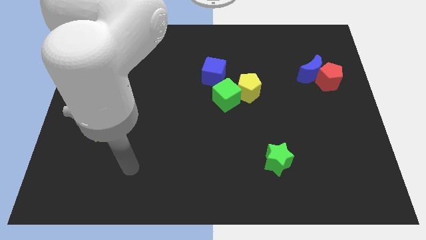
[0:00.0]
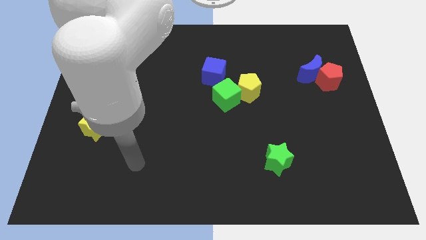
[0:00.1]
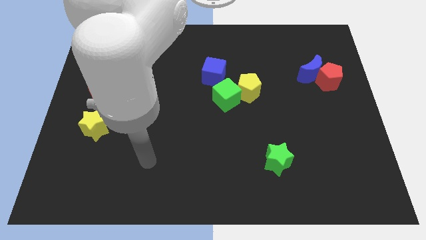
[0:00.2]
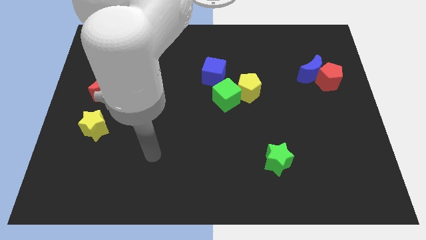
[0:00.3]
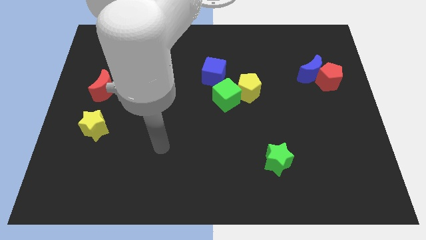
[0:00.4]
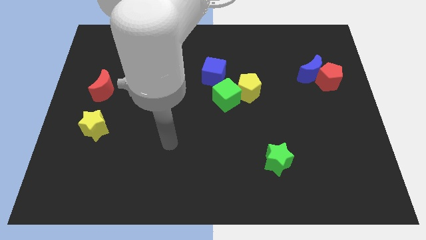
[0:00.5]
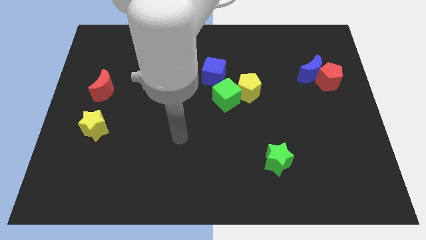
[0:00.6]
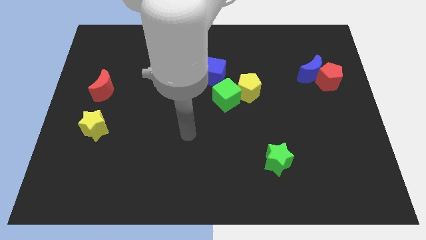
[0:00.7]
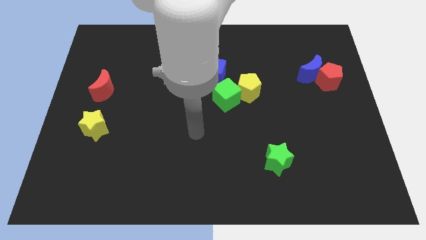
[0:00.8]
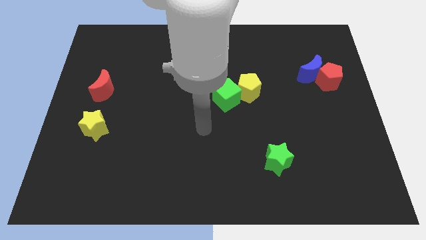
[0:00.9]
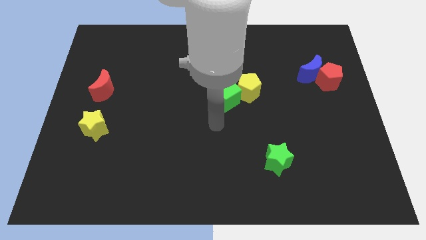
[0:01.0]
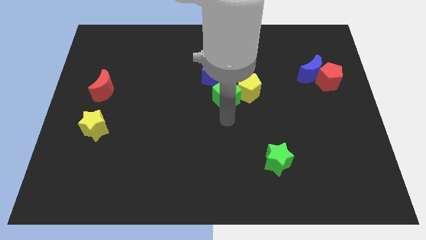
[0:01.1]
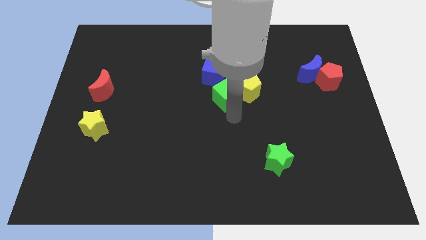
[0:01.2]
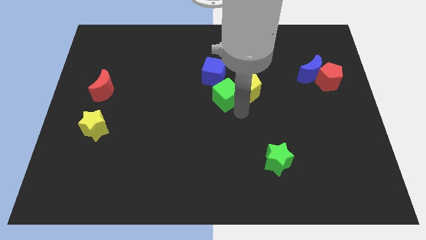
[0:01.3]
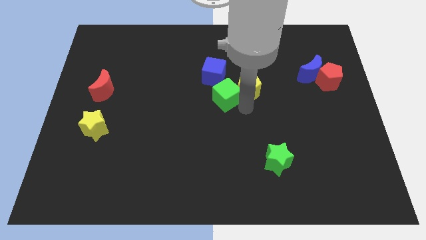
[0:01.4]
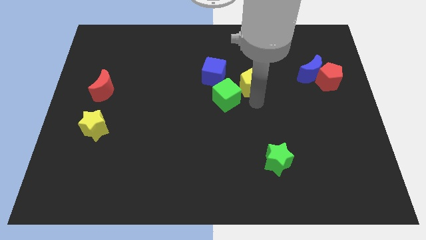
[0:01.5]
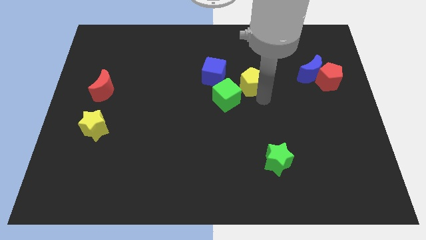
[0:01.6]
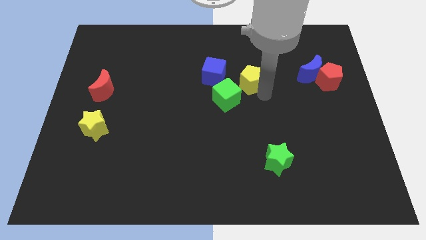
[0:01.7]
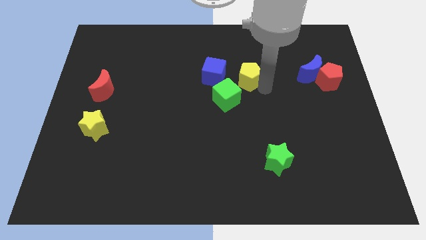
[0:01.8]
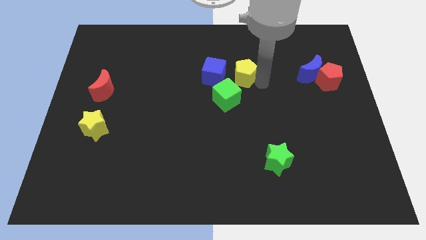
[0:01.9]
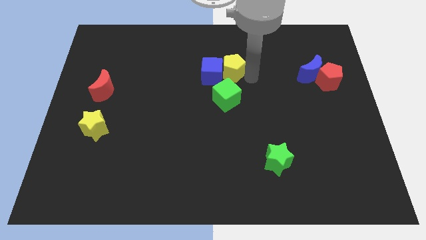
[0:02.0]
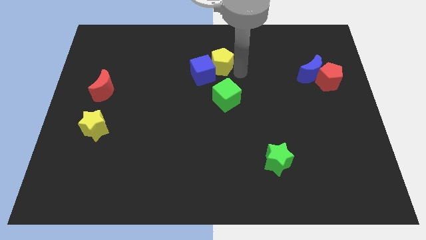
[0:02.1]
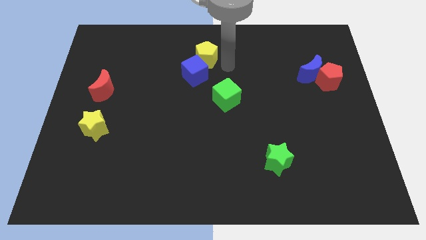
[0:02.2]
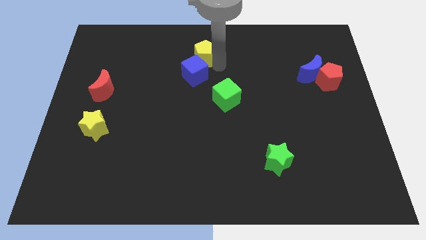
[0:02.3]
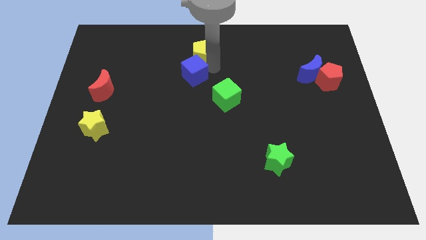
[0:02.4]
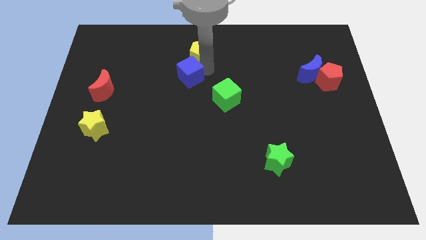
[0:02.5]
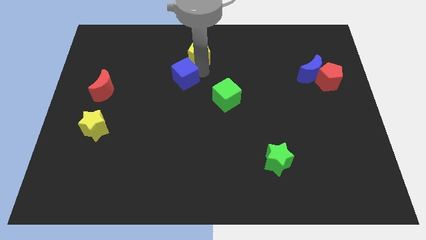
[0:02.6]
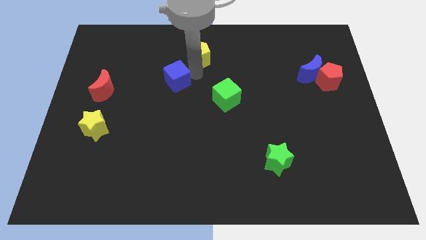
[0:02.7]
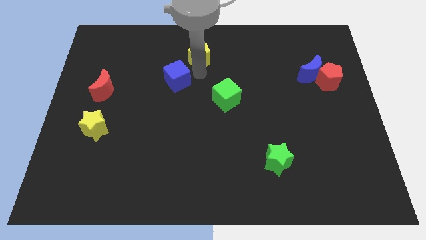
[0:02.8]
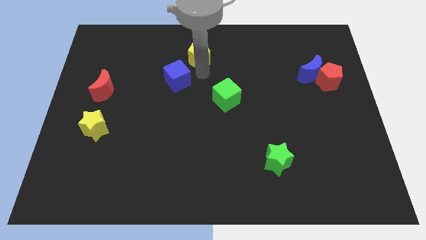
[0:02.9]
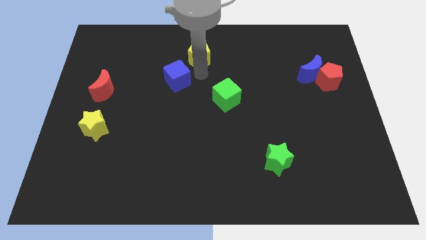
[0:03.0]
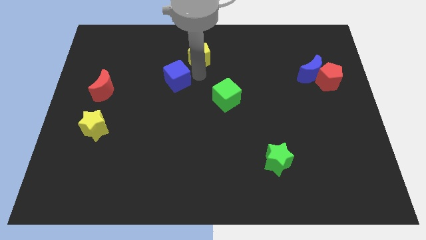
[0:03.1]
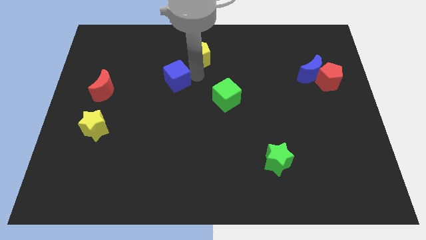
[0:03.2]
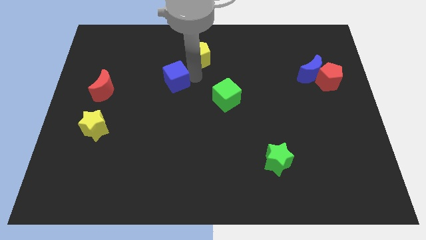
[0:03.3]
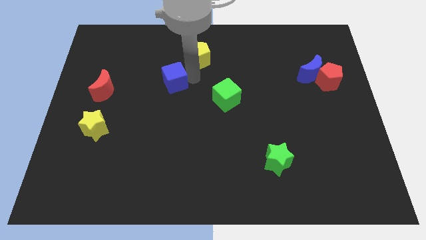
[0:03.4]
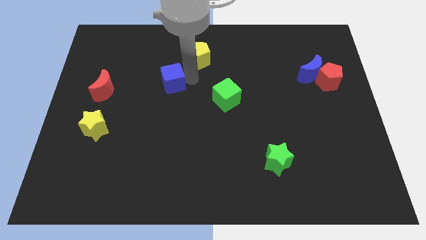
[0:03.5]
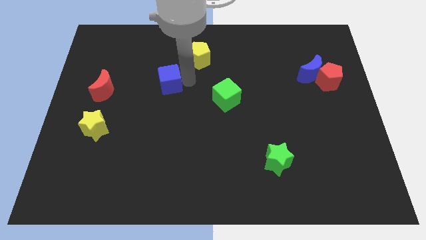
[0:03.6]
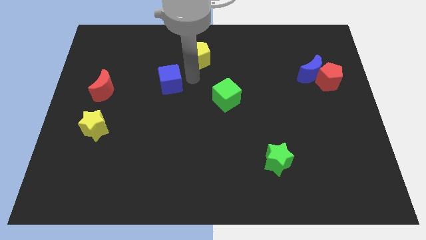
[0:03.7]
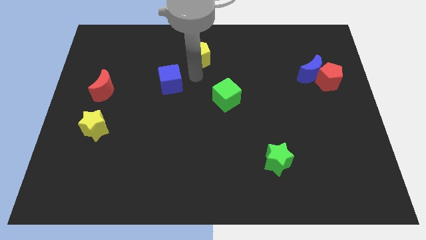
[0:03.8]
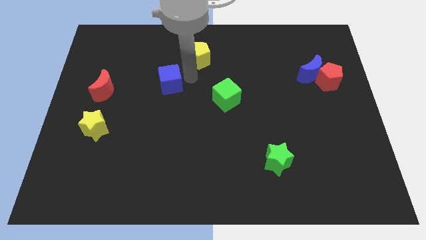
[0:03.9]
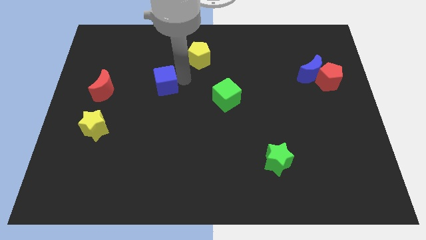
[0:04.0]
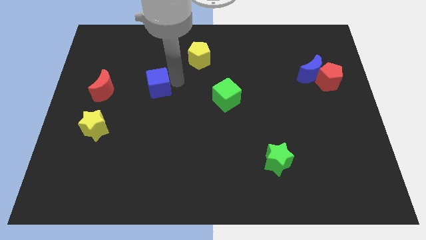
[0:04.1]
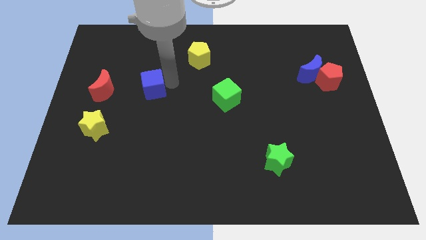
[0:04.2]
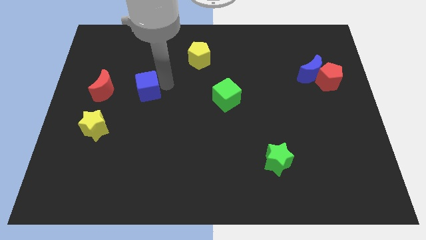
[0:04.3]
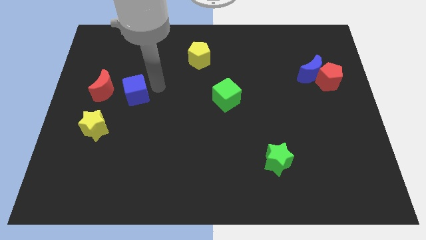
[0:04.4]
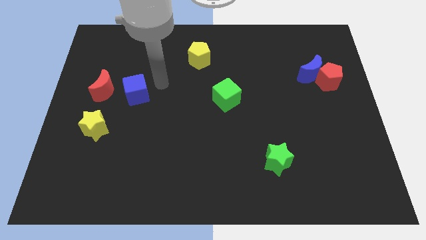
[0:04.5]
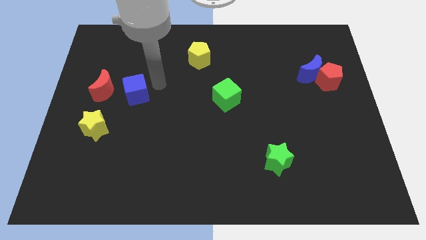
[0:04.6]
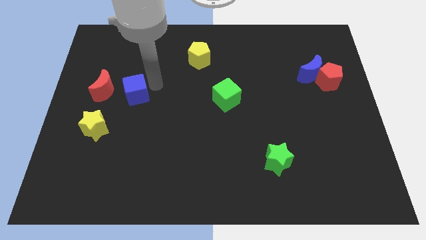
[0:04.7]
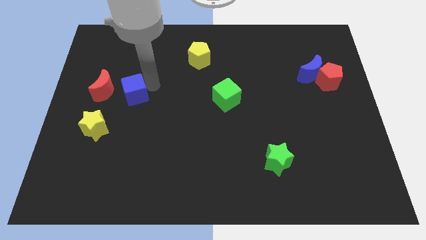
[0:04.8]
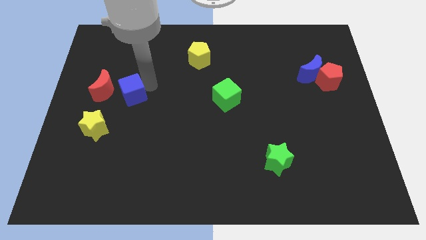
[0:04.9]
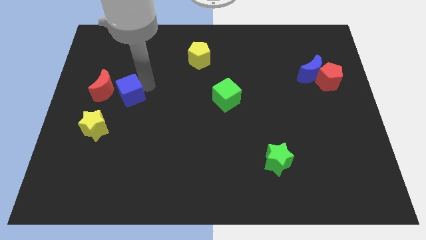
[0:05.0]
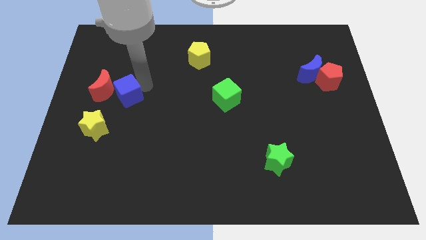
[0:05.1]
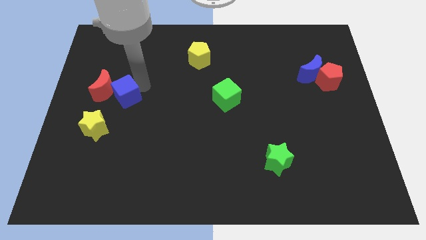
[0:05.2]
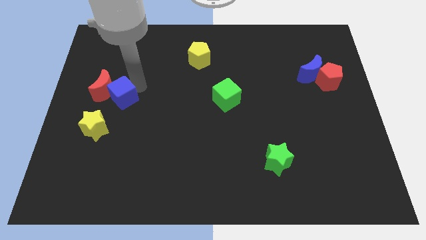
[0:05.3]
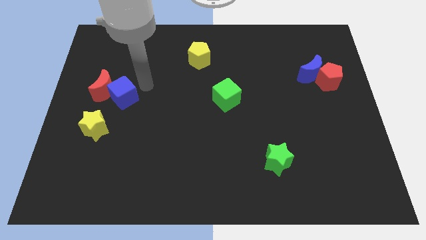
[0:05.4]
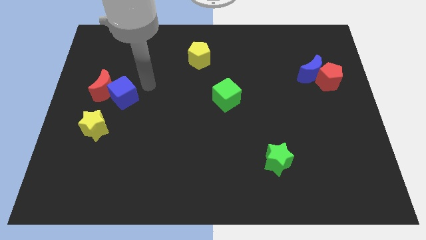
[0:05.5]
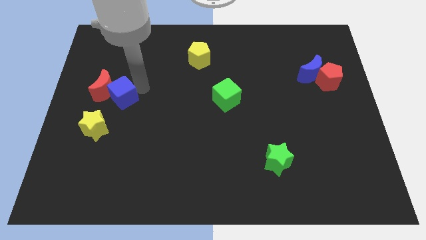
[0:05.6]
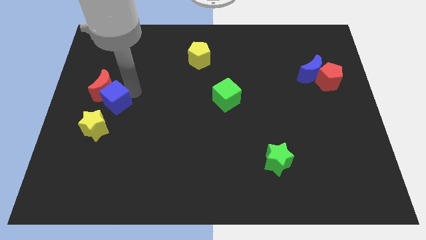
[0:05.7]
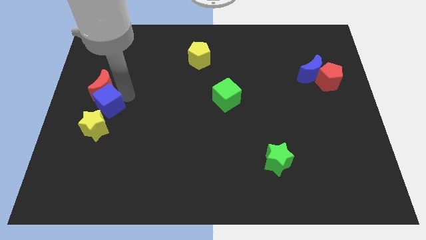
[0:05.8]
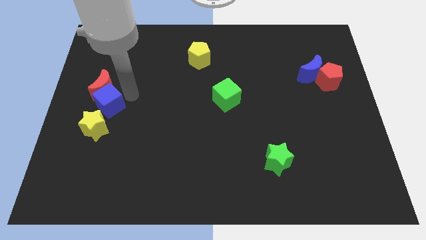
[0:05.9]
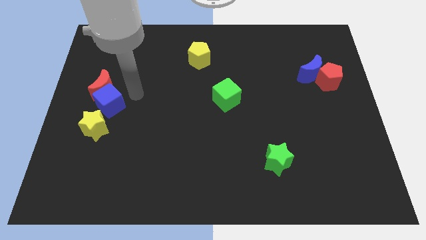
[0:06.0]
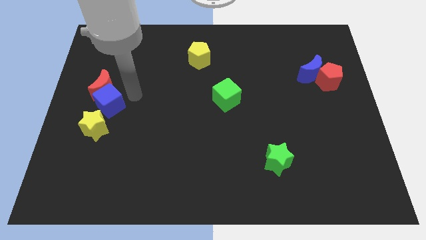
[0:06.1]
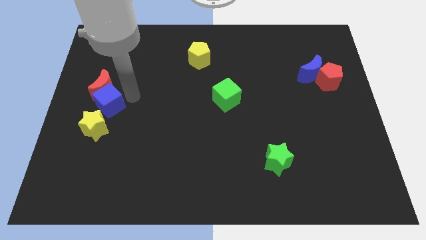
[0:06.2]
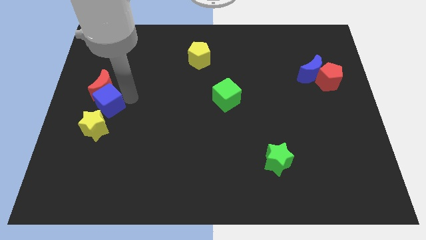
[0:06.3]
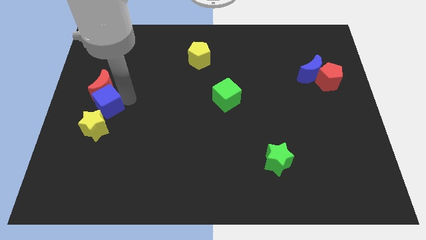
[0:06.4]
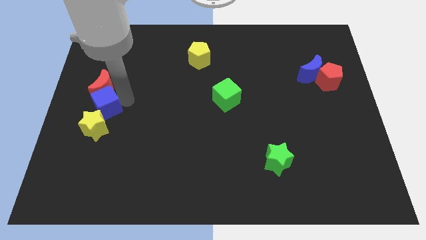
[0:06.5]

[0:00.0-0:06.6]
put the blue cube to the left side

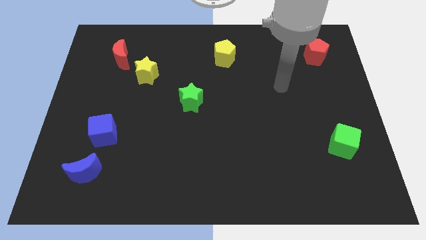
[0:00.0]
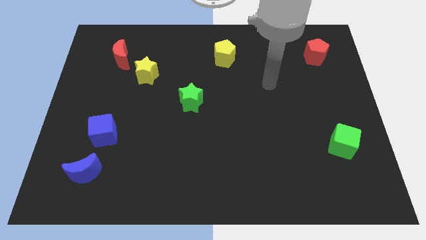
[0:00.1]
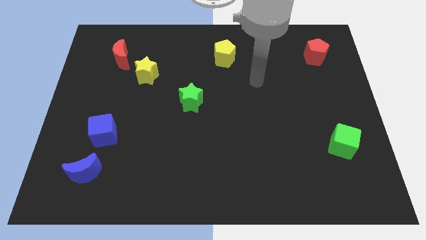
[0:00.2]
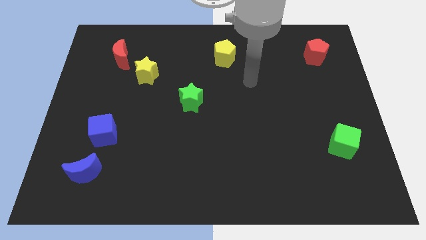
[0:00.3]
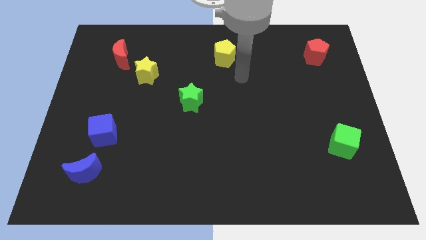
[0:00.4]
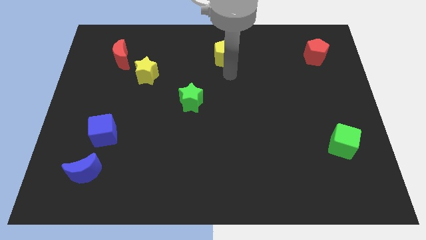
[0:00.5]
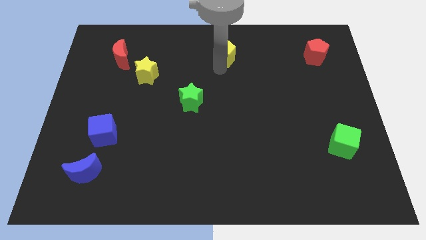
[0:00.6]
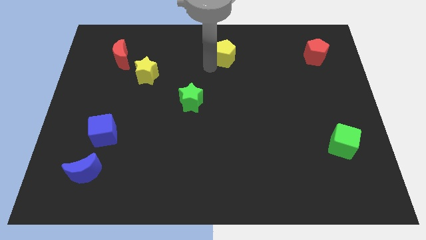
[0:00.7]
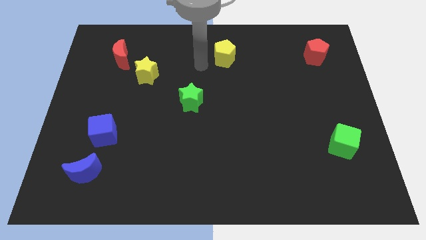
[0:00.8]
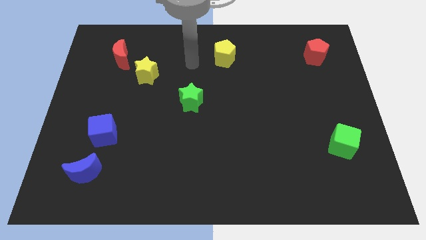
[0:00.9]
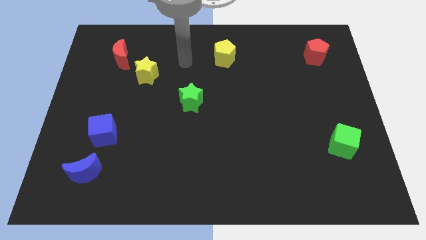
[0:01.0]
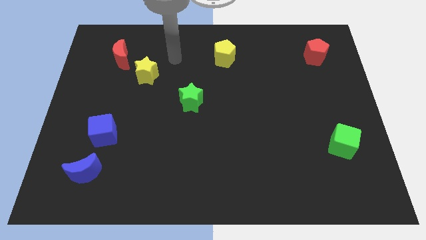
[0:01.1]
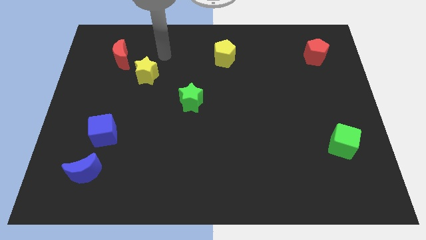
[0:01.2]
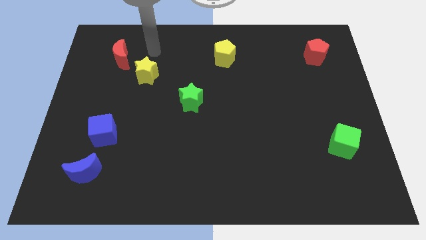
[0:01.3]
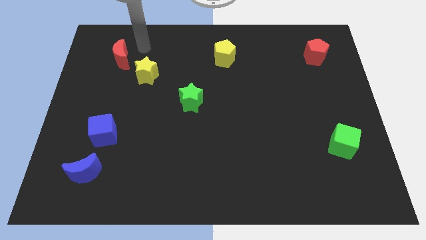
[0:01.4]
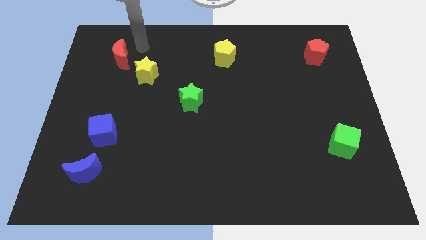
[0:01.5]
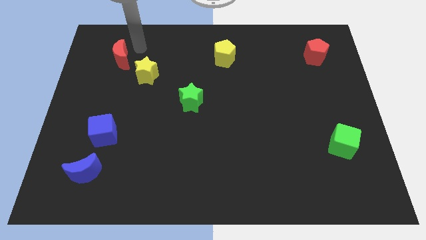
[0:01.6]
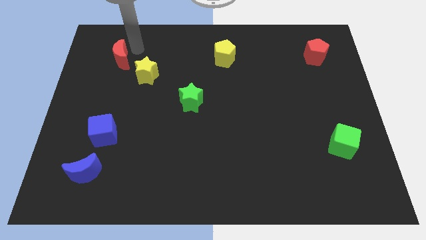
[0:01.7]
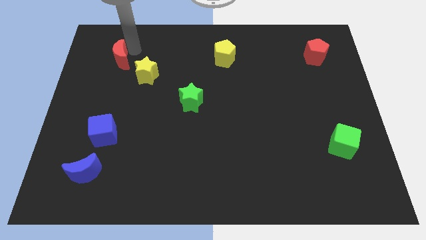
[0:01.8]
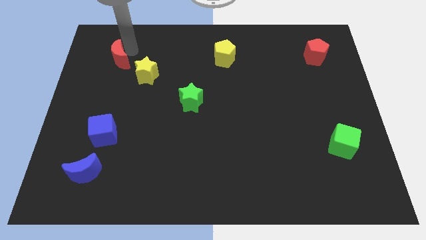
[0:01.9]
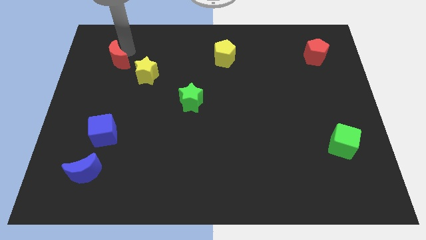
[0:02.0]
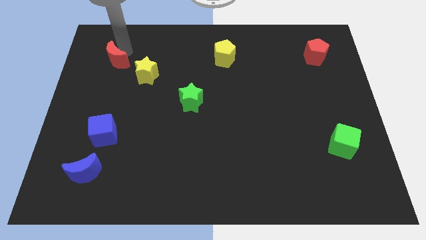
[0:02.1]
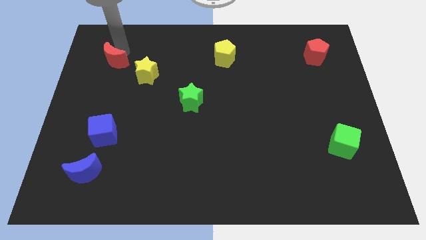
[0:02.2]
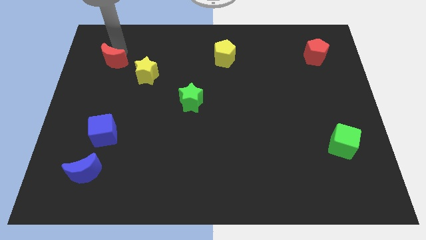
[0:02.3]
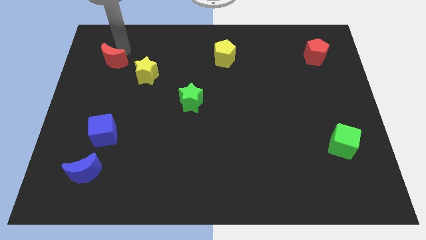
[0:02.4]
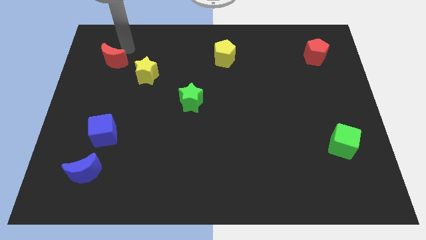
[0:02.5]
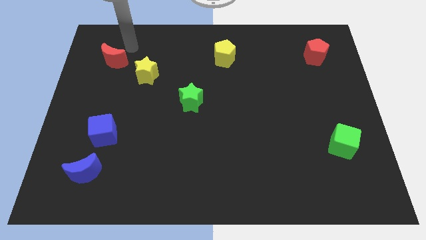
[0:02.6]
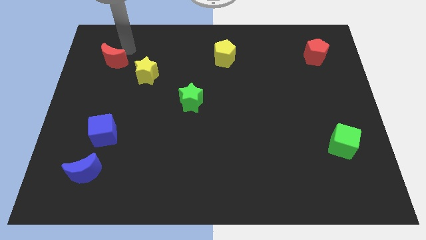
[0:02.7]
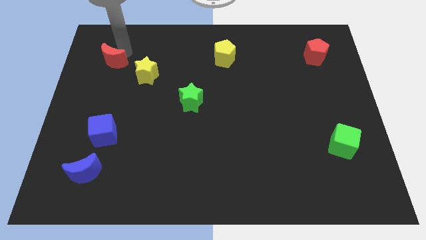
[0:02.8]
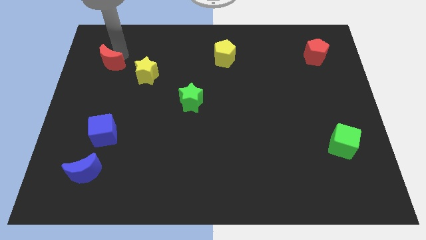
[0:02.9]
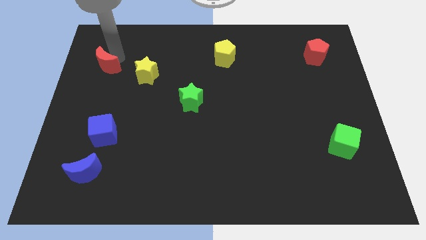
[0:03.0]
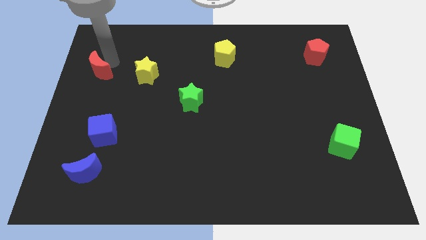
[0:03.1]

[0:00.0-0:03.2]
move the red moon to the left side
